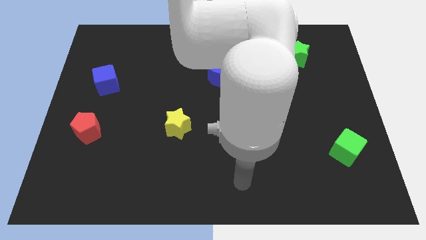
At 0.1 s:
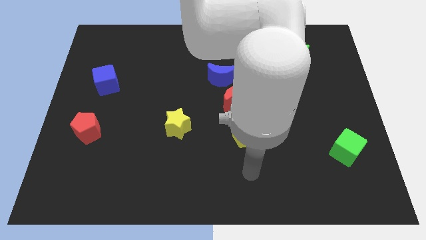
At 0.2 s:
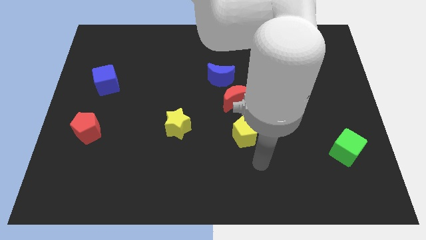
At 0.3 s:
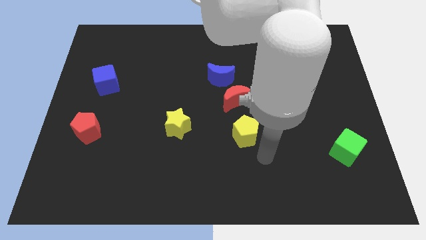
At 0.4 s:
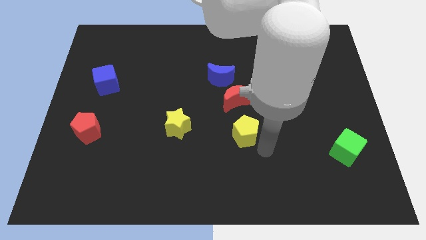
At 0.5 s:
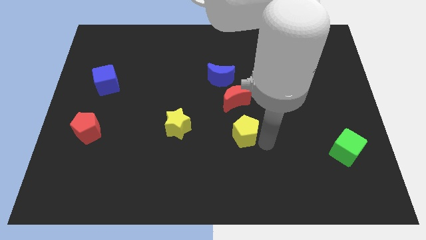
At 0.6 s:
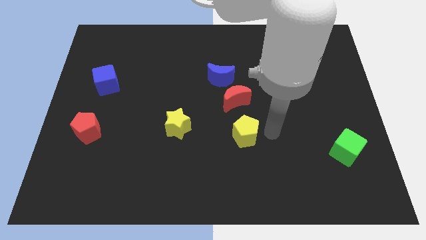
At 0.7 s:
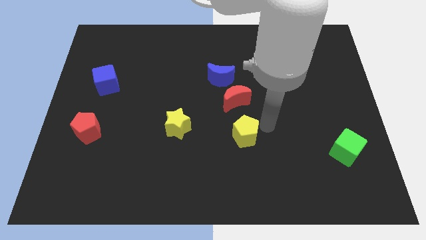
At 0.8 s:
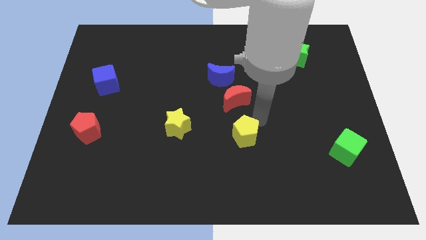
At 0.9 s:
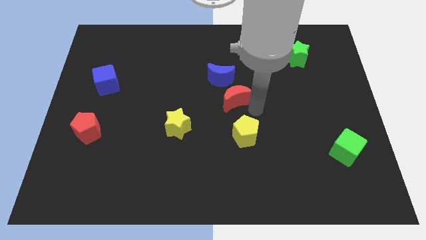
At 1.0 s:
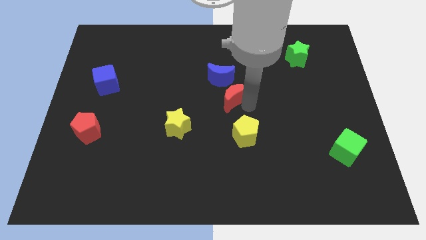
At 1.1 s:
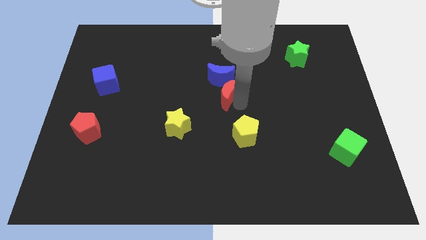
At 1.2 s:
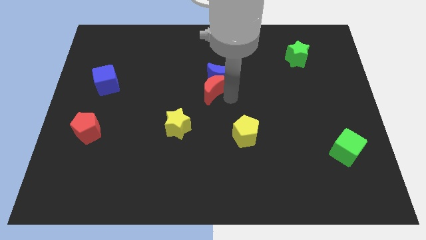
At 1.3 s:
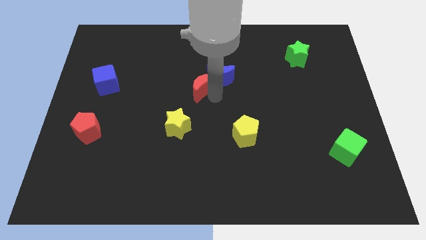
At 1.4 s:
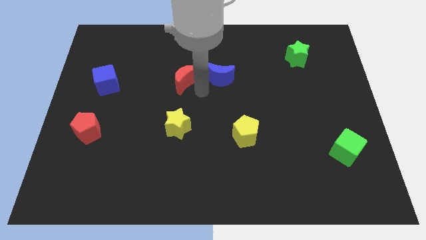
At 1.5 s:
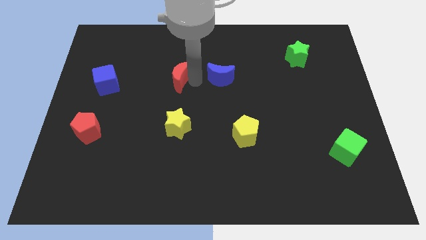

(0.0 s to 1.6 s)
move the blue moon away from the red moon

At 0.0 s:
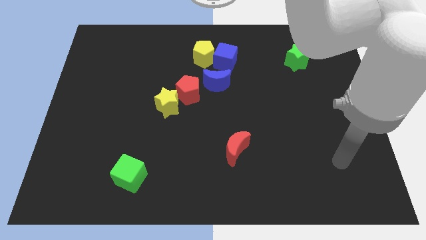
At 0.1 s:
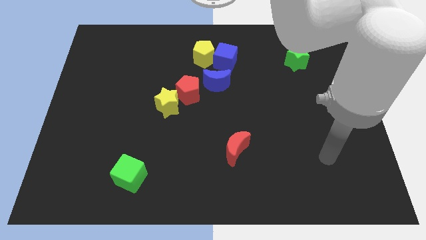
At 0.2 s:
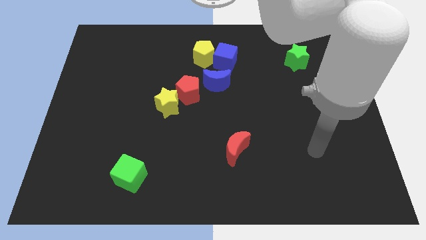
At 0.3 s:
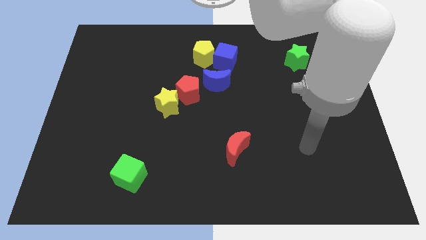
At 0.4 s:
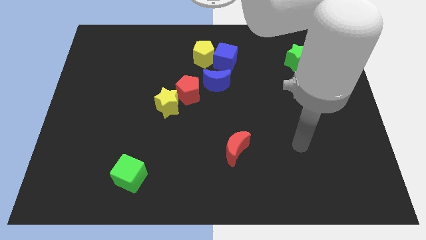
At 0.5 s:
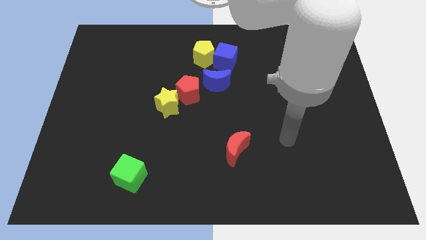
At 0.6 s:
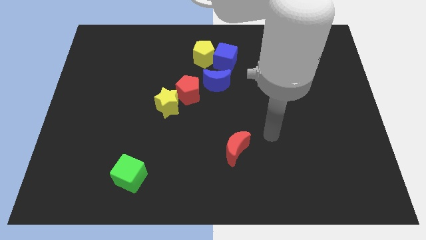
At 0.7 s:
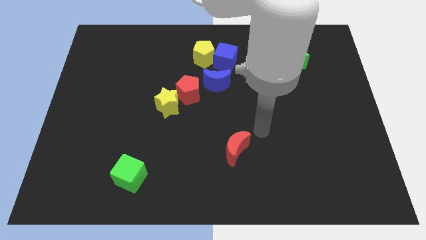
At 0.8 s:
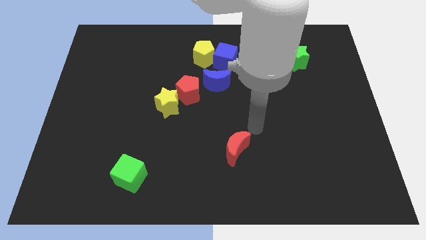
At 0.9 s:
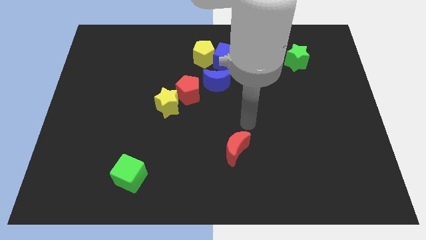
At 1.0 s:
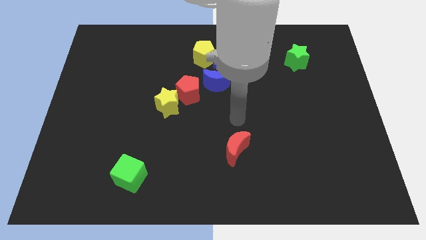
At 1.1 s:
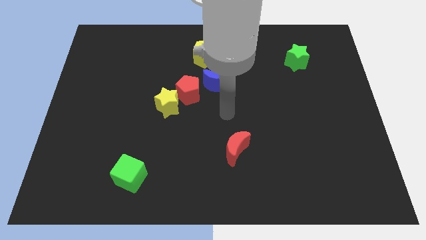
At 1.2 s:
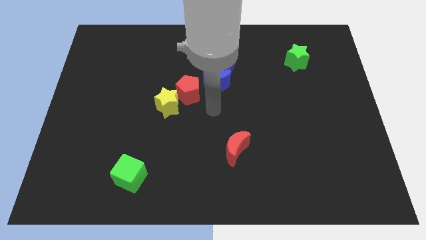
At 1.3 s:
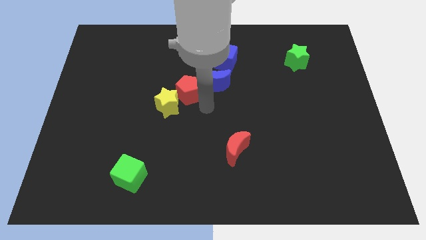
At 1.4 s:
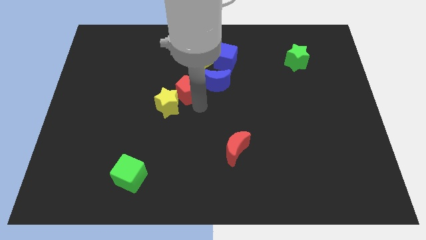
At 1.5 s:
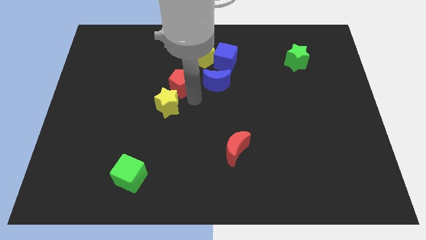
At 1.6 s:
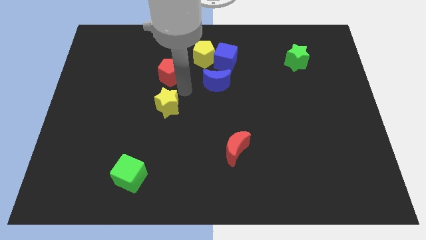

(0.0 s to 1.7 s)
move the yellow star away from the red pentagon

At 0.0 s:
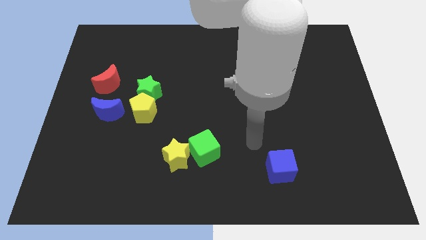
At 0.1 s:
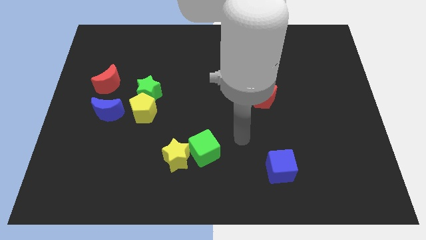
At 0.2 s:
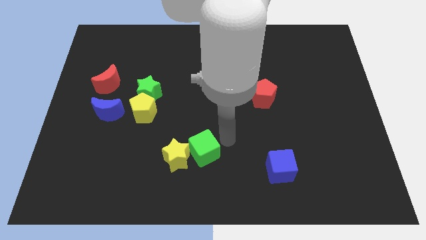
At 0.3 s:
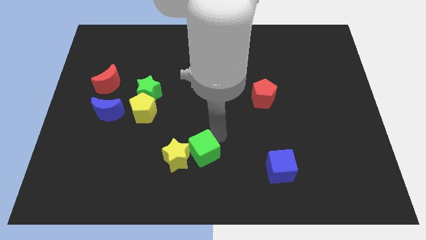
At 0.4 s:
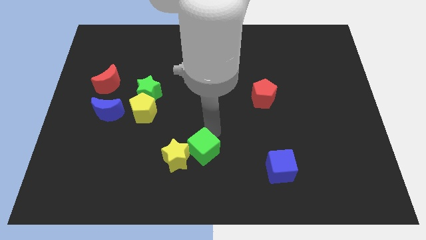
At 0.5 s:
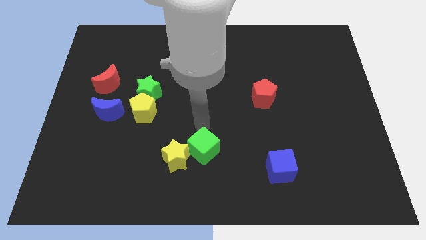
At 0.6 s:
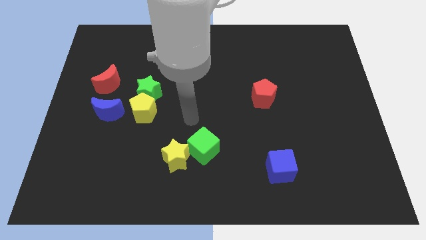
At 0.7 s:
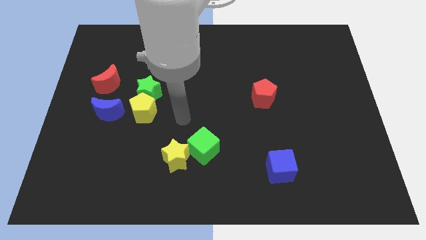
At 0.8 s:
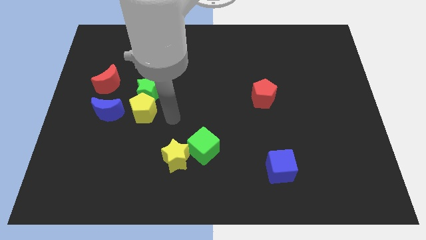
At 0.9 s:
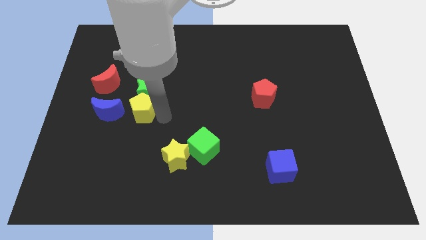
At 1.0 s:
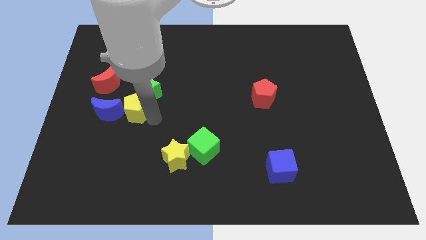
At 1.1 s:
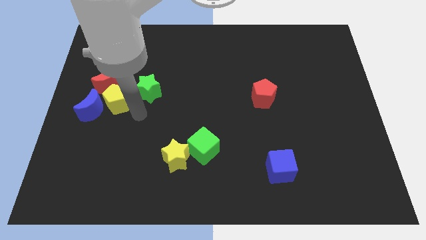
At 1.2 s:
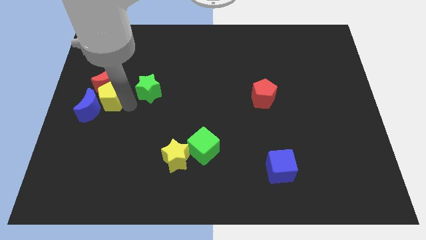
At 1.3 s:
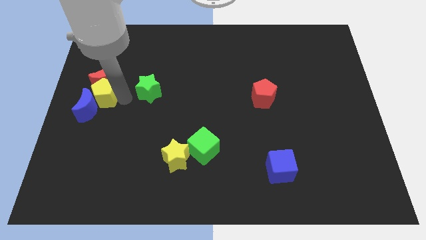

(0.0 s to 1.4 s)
move the green star away from the yellow pentagon

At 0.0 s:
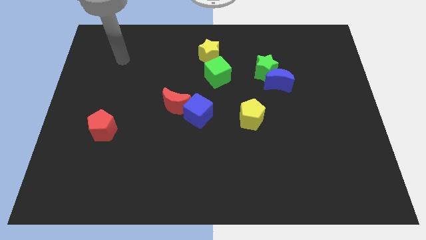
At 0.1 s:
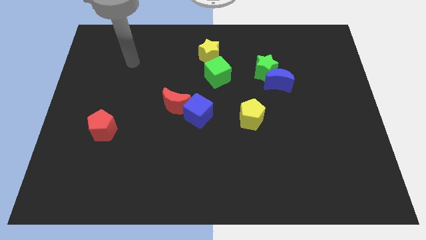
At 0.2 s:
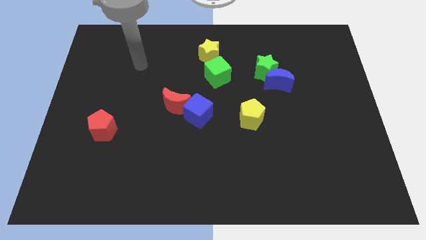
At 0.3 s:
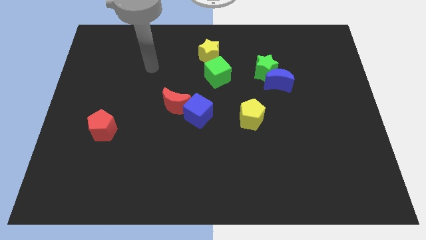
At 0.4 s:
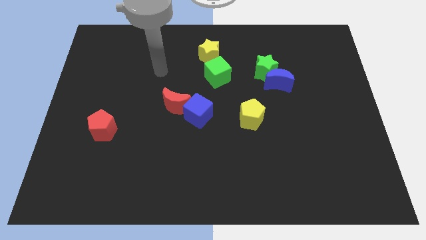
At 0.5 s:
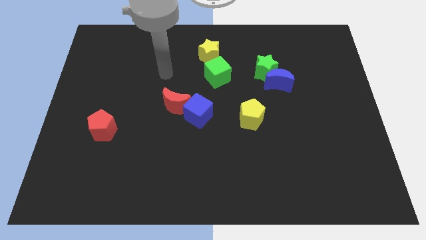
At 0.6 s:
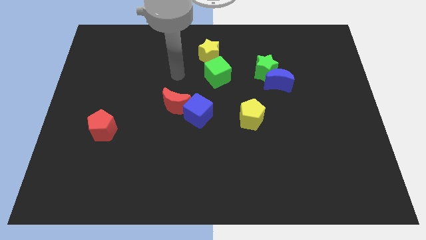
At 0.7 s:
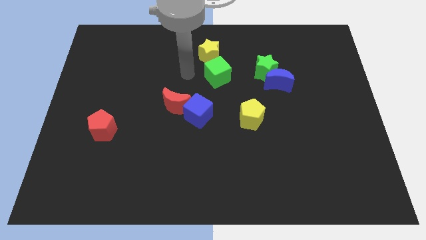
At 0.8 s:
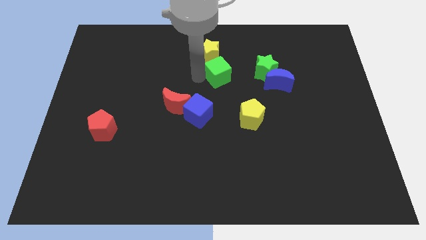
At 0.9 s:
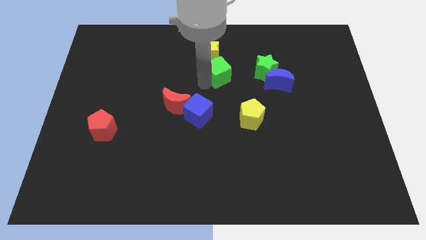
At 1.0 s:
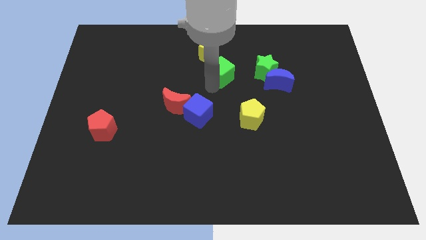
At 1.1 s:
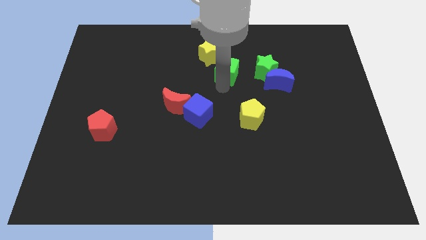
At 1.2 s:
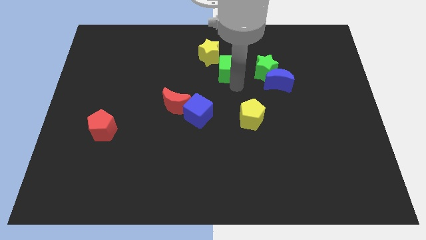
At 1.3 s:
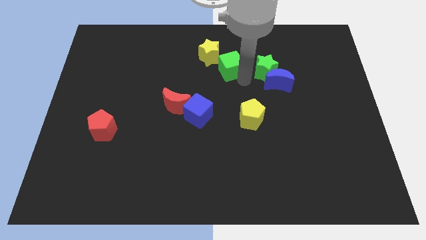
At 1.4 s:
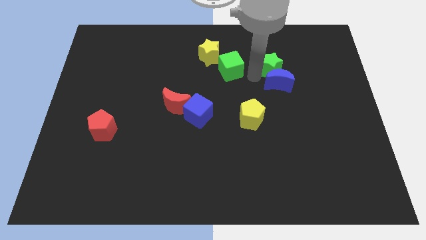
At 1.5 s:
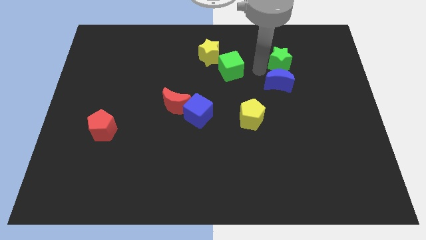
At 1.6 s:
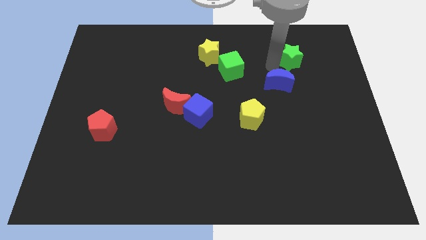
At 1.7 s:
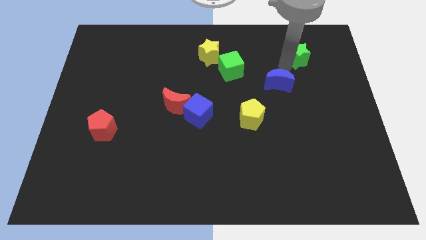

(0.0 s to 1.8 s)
move the blue moon away from the green star

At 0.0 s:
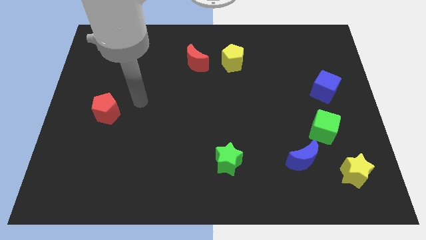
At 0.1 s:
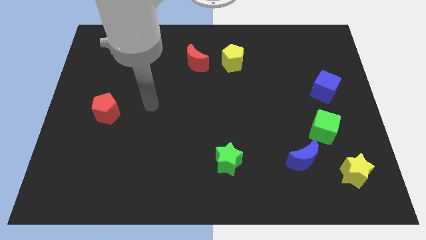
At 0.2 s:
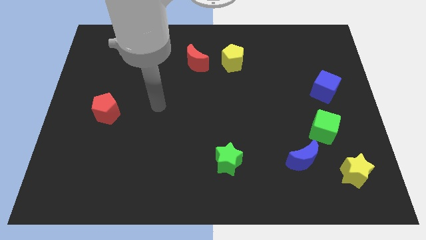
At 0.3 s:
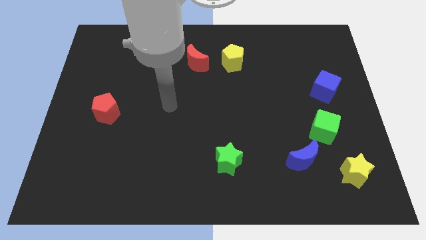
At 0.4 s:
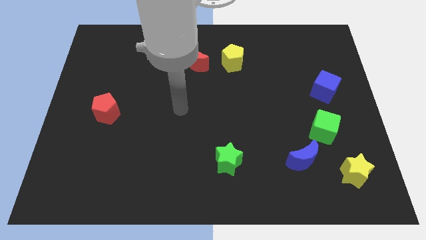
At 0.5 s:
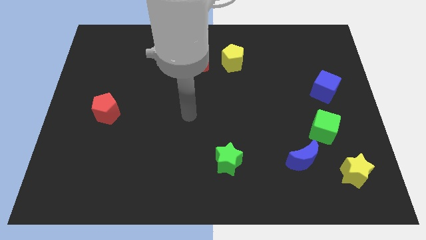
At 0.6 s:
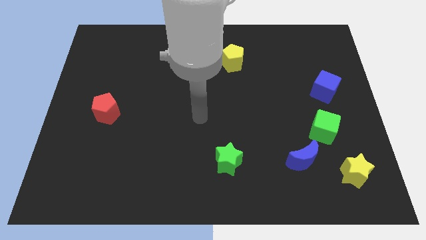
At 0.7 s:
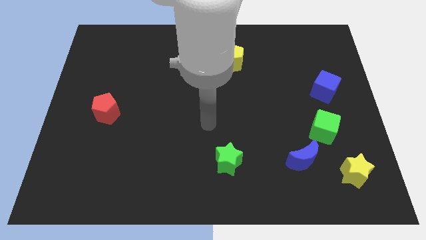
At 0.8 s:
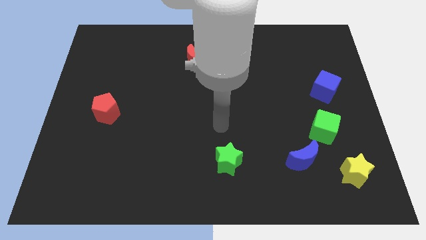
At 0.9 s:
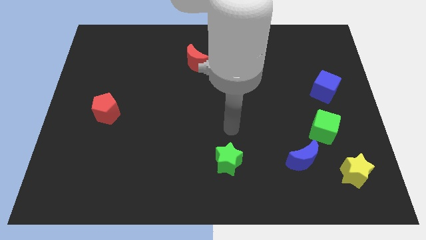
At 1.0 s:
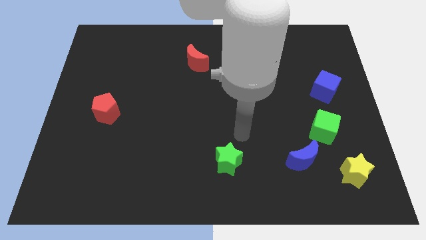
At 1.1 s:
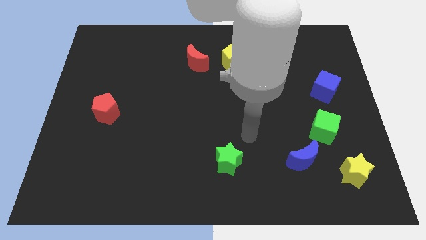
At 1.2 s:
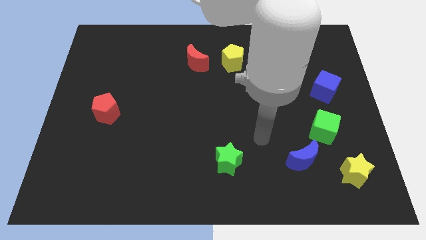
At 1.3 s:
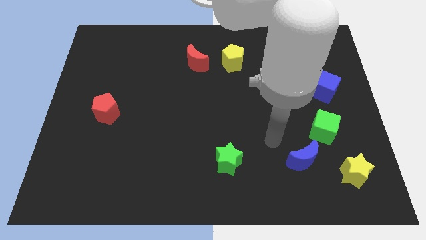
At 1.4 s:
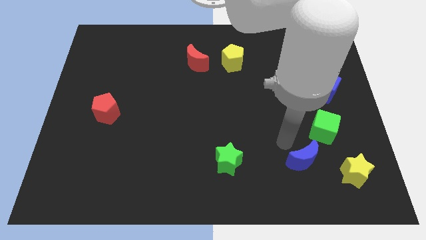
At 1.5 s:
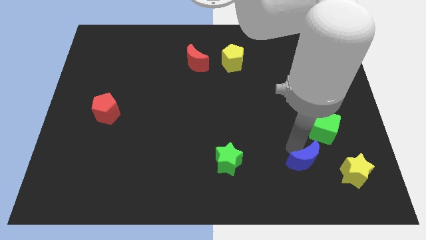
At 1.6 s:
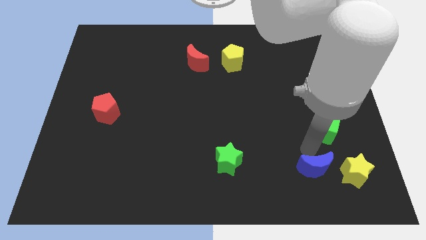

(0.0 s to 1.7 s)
separate the green cube from the blue moon

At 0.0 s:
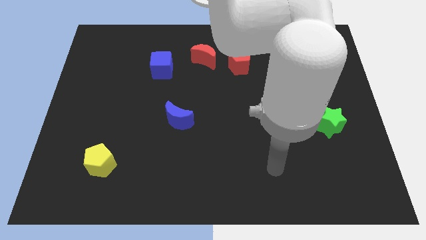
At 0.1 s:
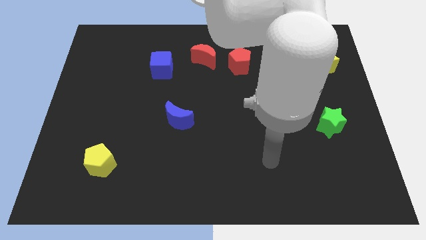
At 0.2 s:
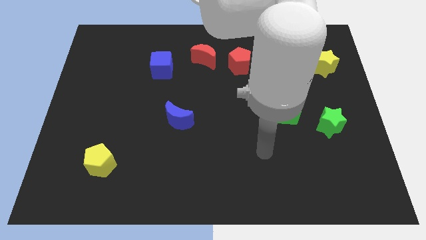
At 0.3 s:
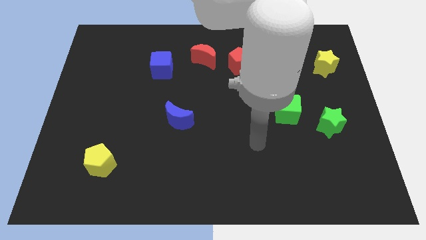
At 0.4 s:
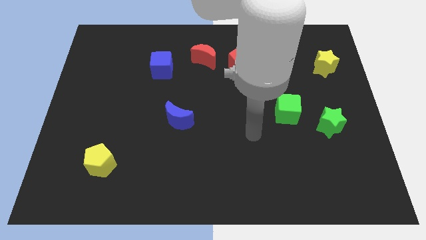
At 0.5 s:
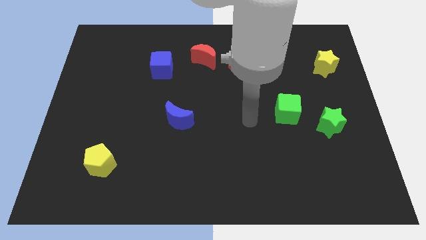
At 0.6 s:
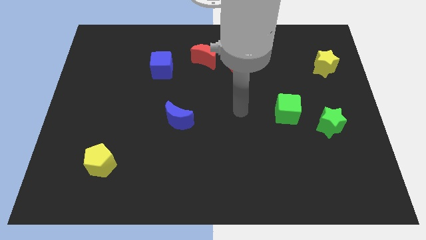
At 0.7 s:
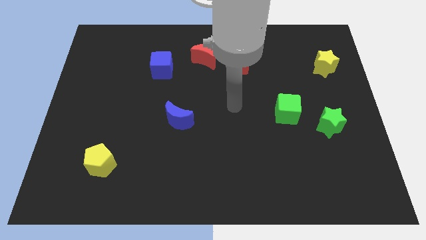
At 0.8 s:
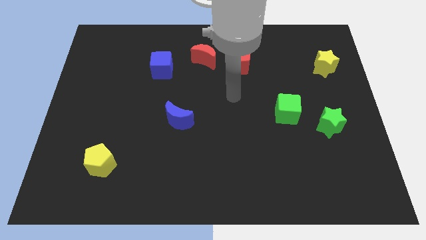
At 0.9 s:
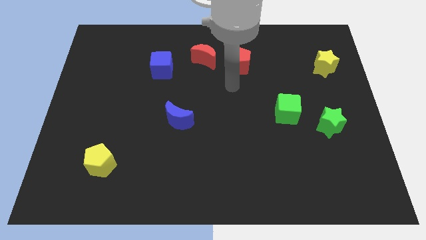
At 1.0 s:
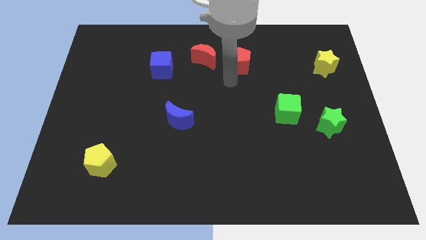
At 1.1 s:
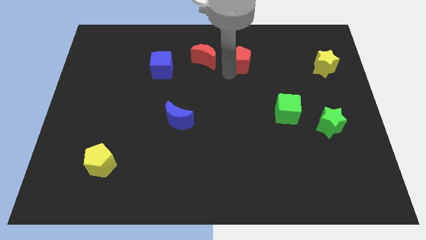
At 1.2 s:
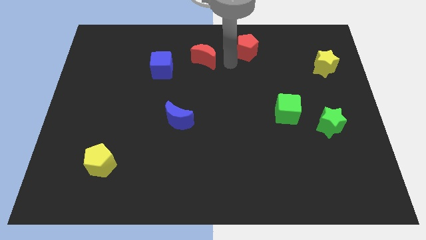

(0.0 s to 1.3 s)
move the red moon away from the red pentagon
